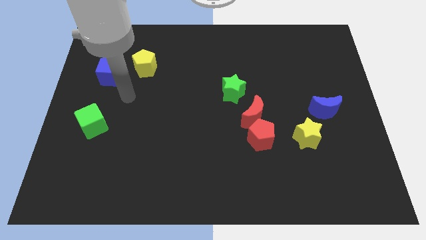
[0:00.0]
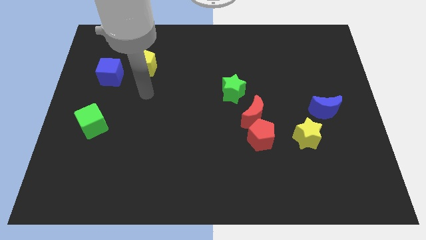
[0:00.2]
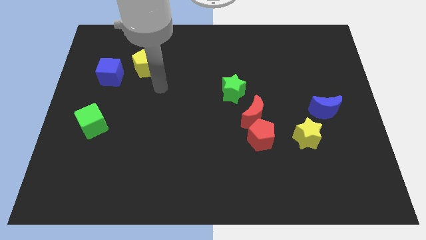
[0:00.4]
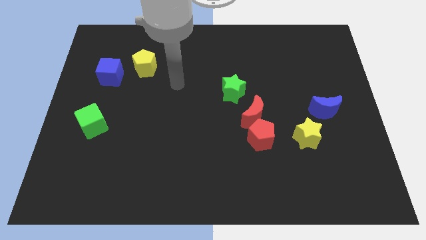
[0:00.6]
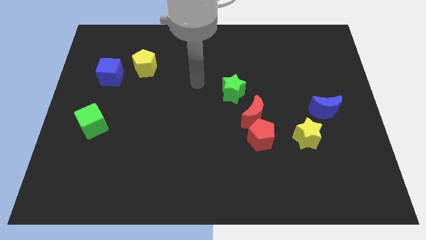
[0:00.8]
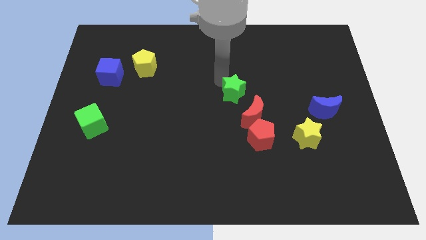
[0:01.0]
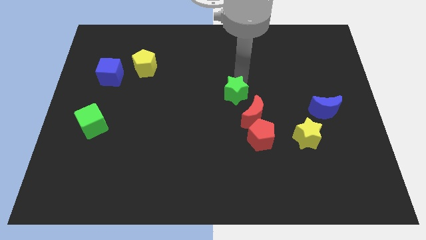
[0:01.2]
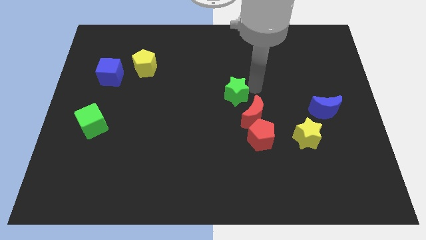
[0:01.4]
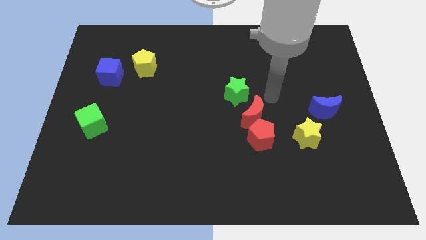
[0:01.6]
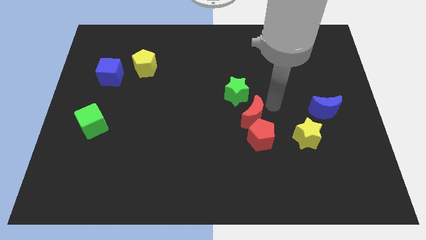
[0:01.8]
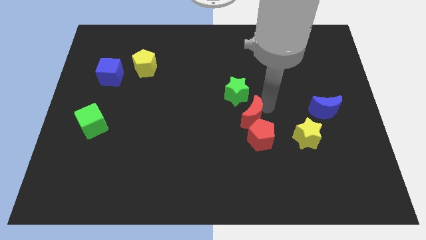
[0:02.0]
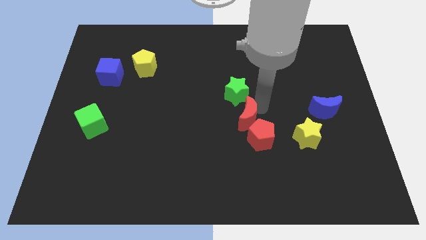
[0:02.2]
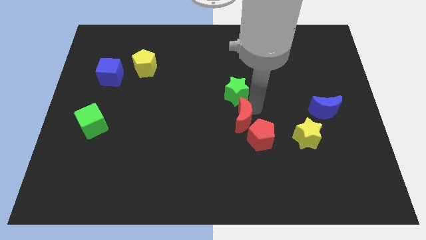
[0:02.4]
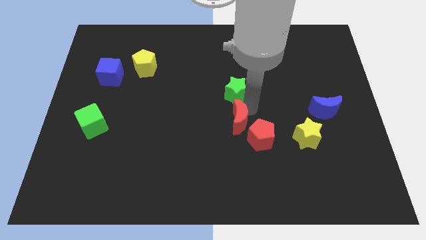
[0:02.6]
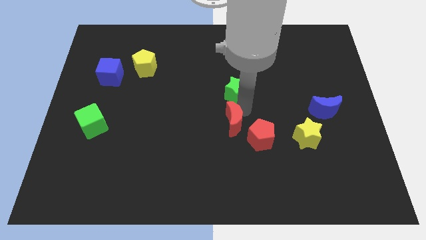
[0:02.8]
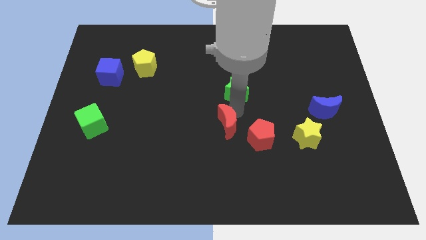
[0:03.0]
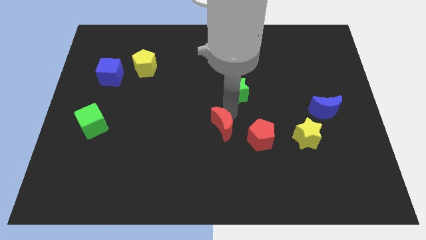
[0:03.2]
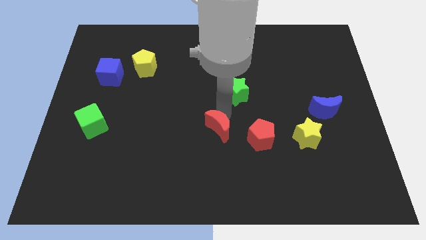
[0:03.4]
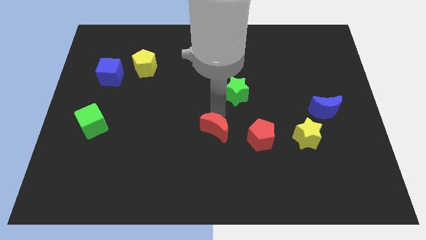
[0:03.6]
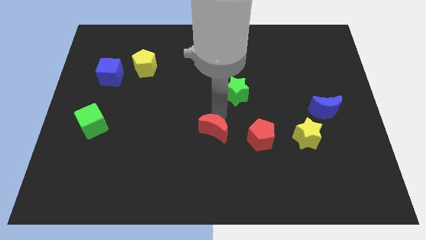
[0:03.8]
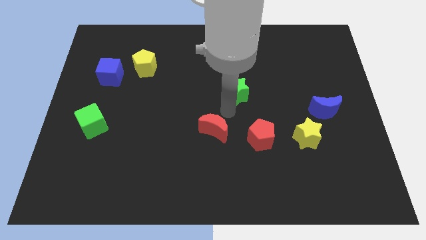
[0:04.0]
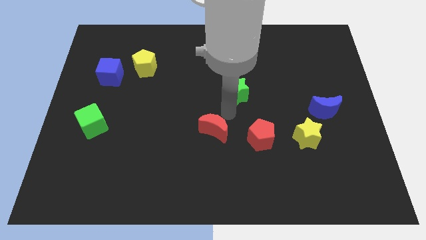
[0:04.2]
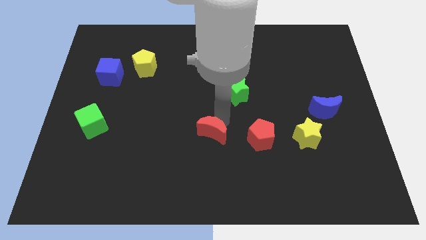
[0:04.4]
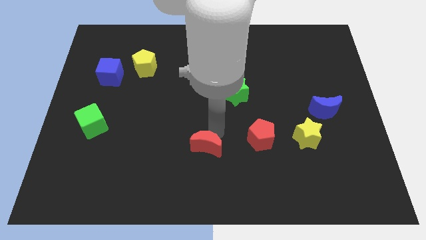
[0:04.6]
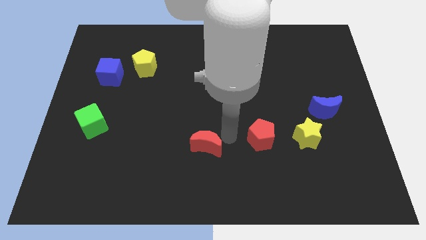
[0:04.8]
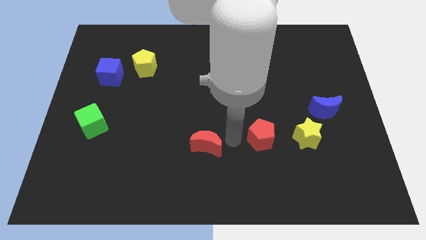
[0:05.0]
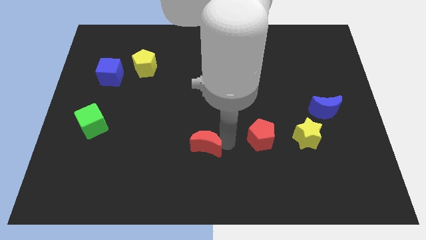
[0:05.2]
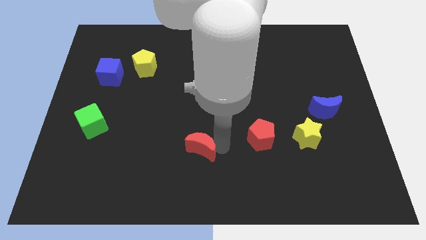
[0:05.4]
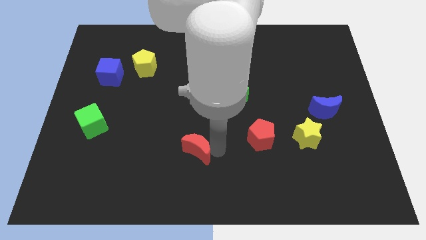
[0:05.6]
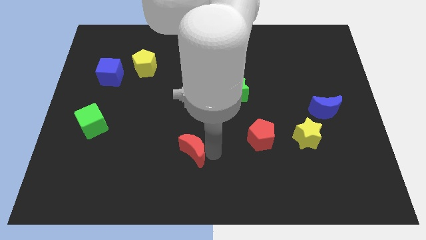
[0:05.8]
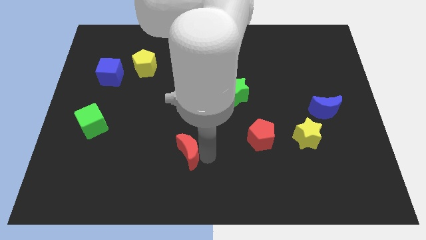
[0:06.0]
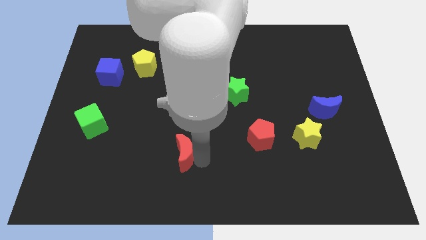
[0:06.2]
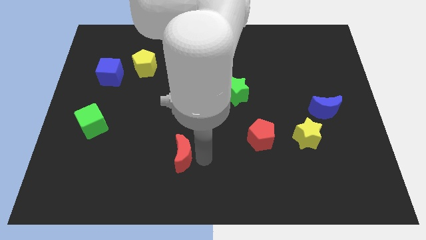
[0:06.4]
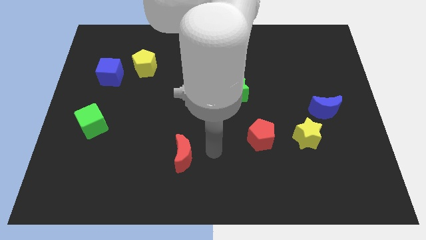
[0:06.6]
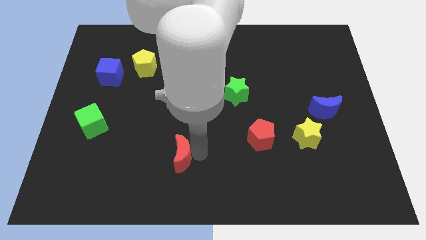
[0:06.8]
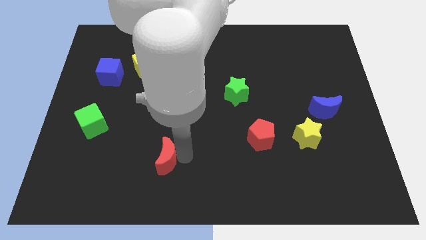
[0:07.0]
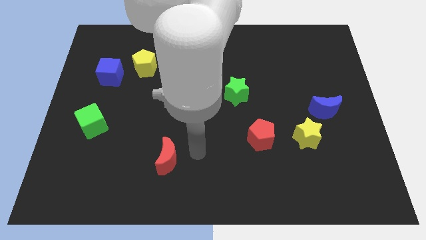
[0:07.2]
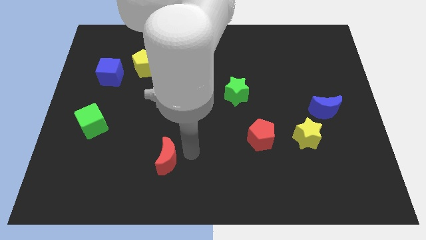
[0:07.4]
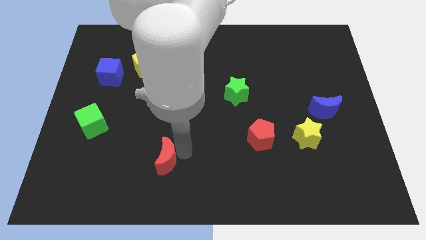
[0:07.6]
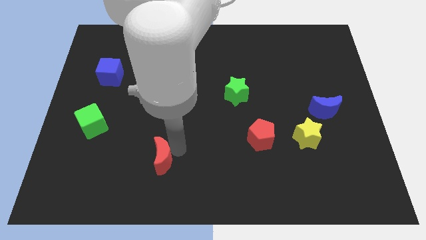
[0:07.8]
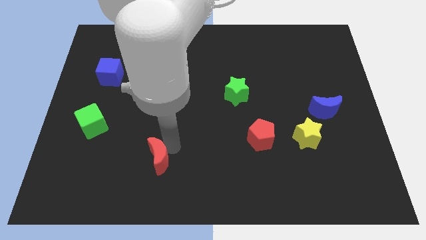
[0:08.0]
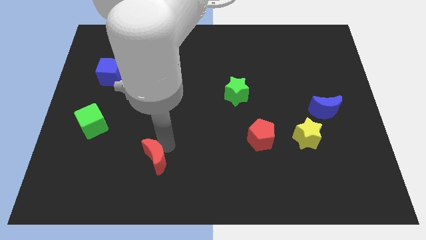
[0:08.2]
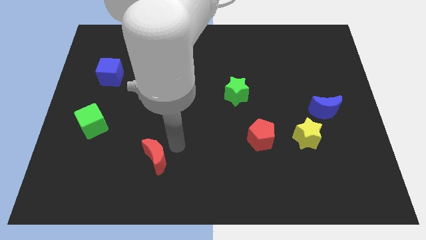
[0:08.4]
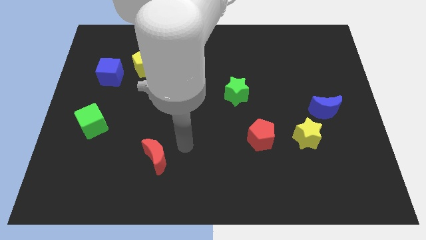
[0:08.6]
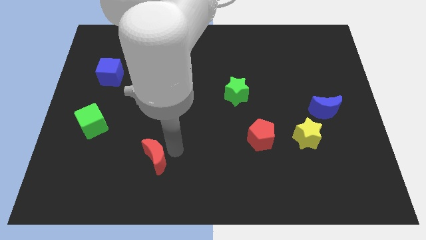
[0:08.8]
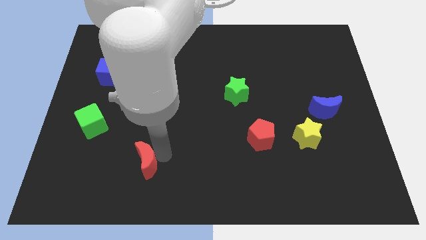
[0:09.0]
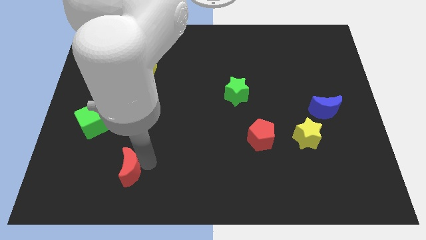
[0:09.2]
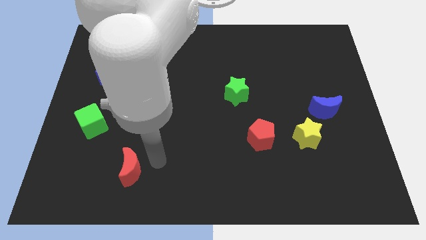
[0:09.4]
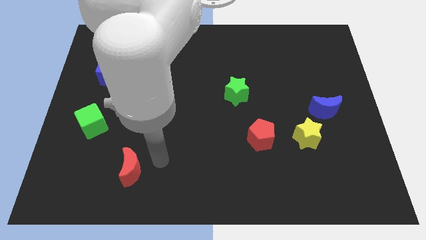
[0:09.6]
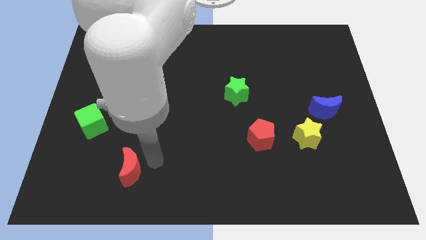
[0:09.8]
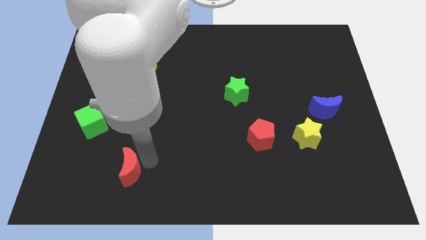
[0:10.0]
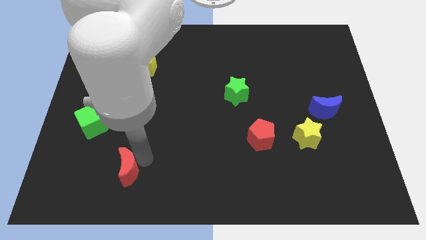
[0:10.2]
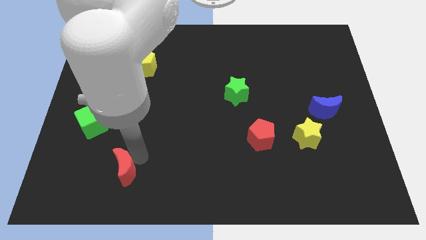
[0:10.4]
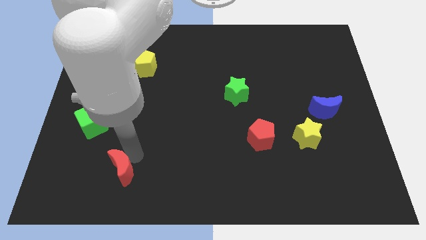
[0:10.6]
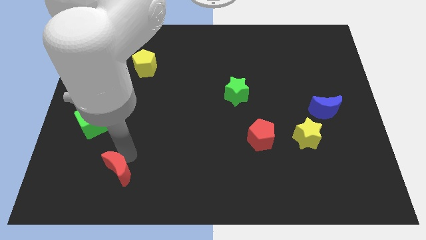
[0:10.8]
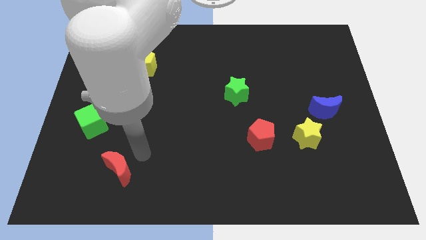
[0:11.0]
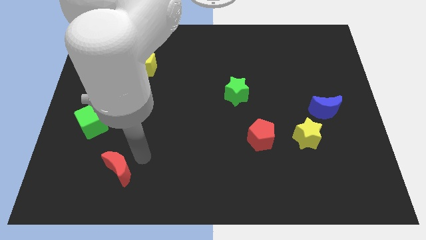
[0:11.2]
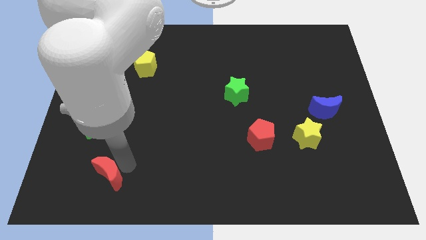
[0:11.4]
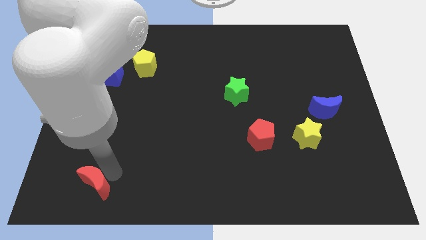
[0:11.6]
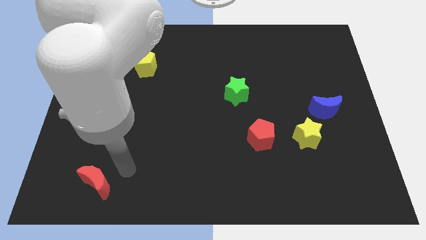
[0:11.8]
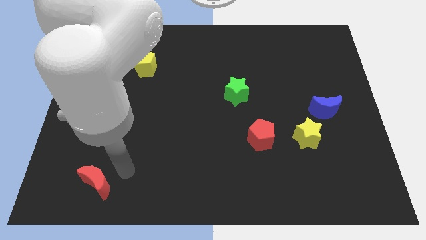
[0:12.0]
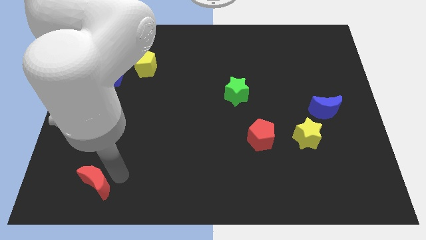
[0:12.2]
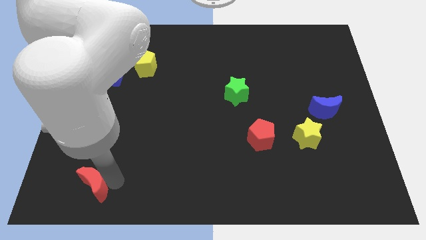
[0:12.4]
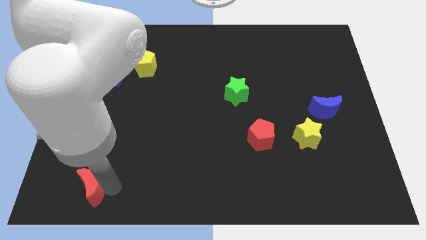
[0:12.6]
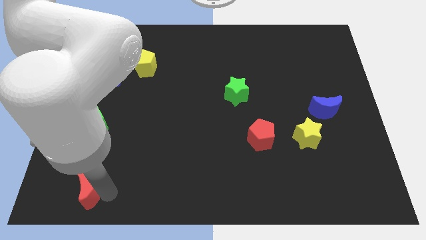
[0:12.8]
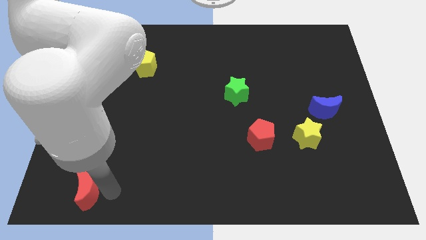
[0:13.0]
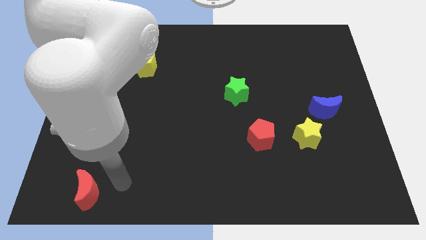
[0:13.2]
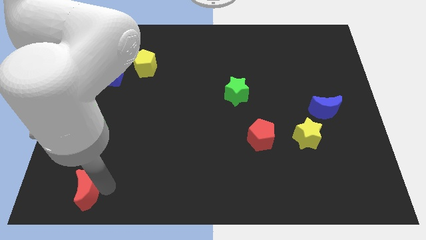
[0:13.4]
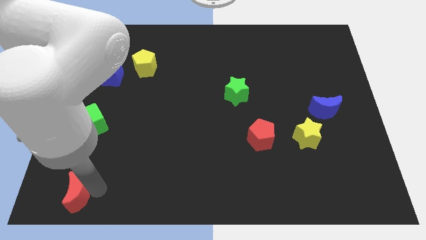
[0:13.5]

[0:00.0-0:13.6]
move the red moon to the bottom left corner

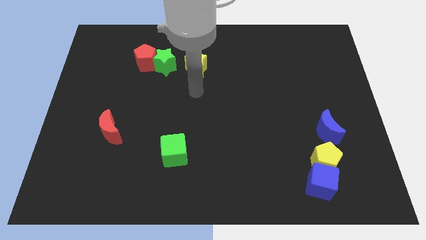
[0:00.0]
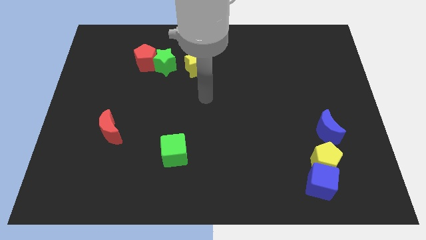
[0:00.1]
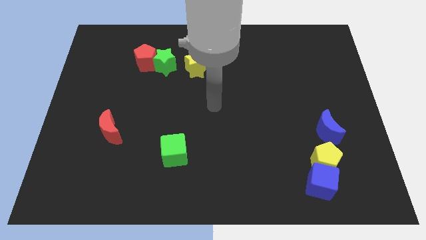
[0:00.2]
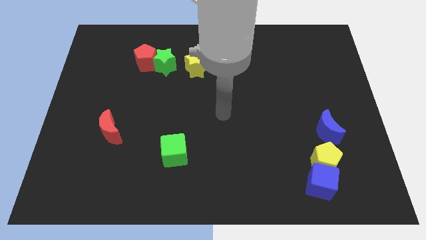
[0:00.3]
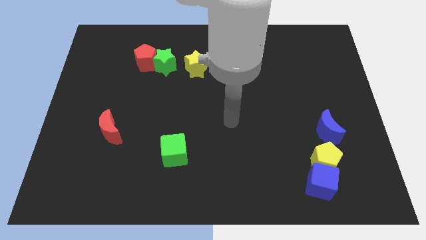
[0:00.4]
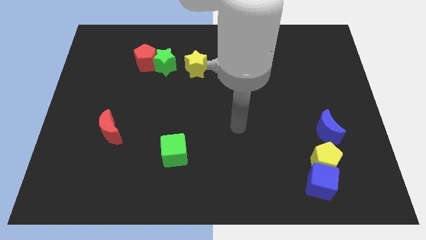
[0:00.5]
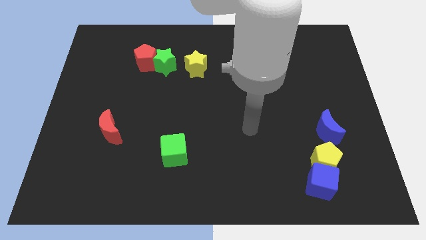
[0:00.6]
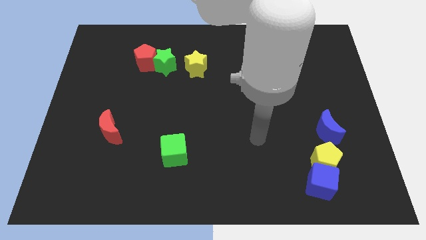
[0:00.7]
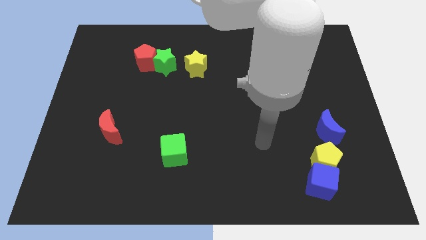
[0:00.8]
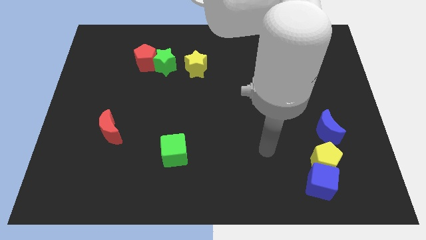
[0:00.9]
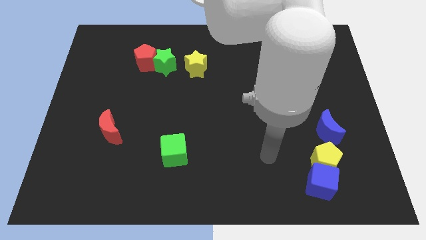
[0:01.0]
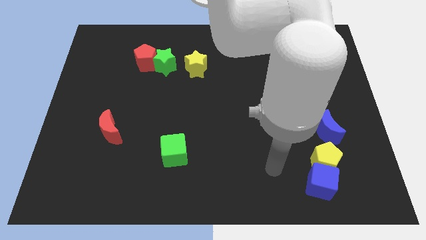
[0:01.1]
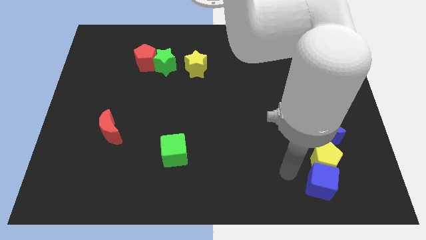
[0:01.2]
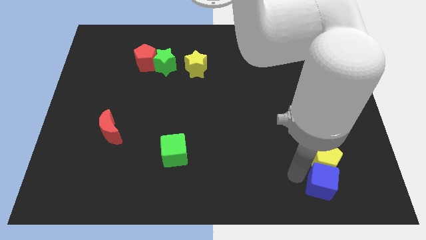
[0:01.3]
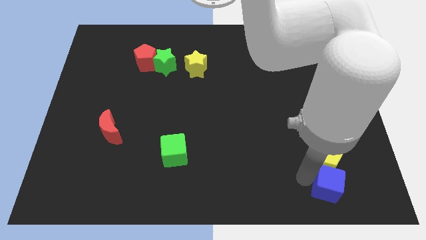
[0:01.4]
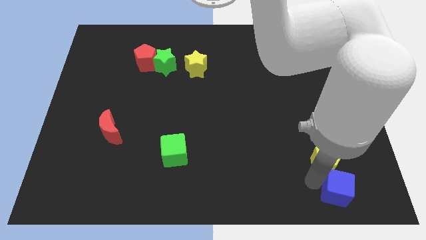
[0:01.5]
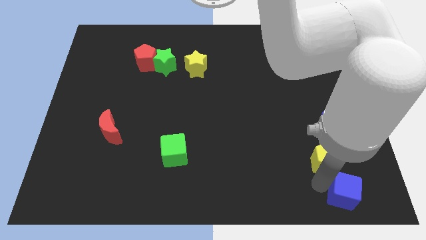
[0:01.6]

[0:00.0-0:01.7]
slide the blue cube to the lower right corner
